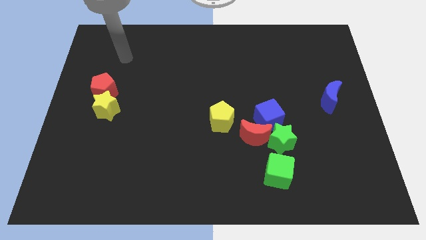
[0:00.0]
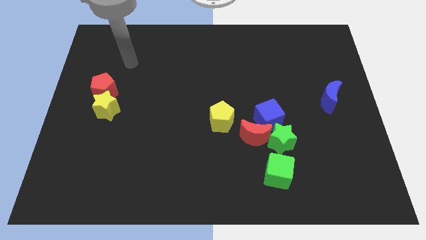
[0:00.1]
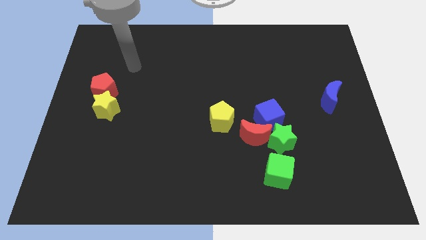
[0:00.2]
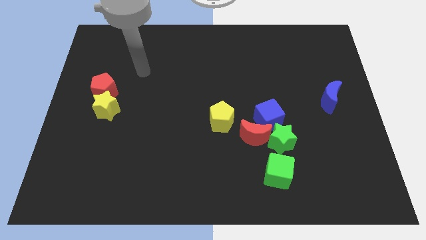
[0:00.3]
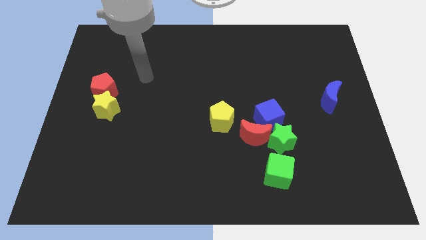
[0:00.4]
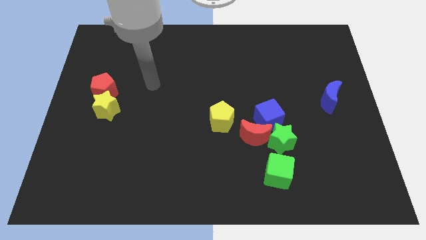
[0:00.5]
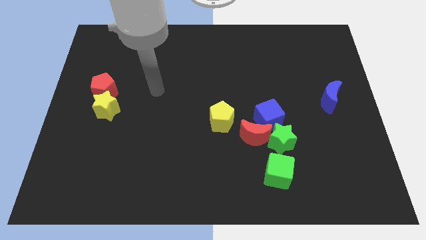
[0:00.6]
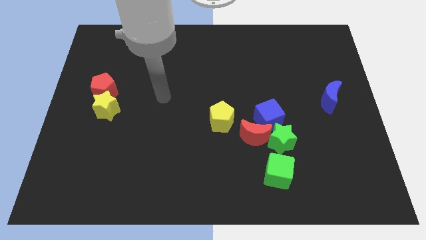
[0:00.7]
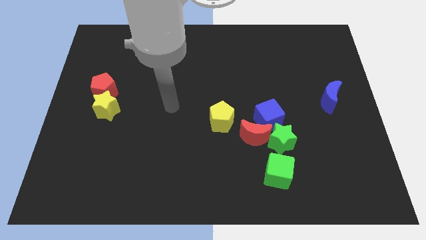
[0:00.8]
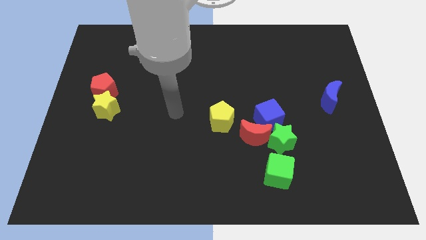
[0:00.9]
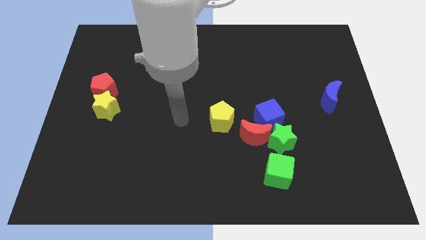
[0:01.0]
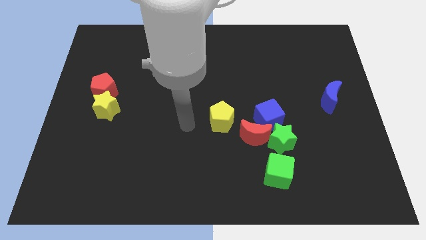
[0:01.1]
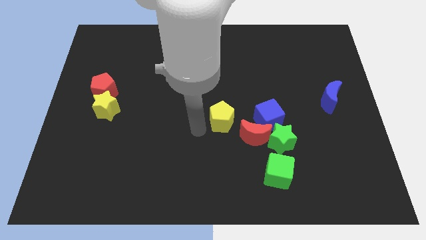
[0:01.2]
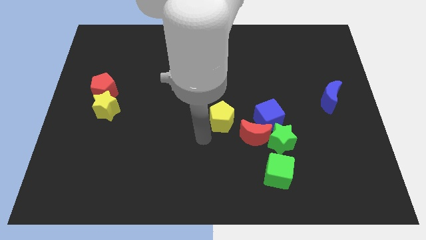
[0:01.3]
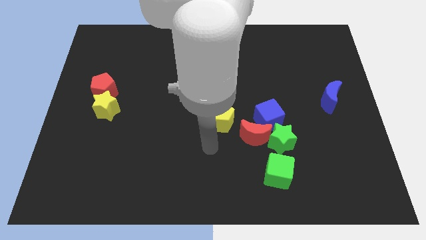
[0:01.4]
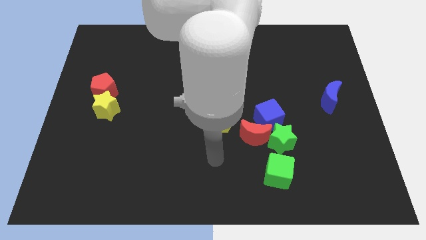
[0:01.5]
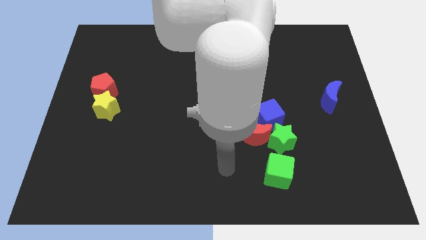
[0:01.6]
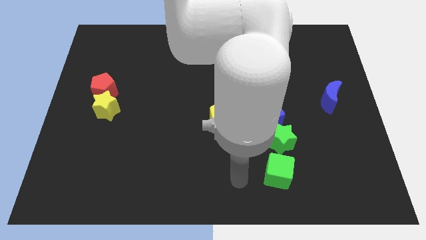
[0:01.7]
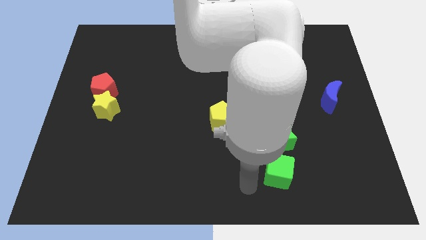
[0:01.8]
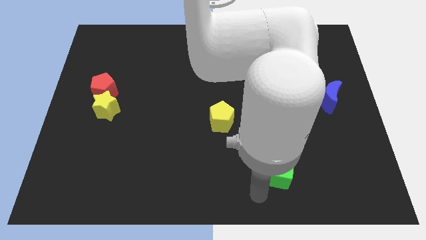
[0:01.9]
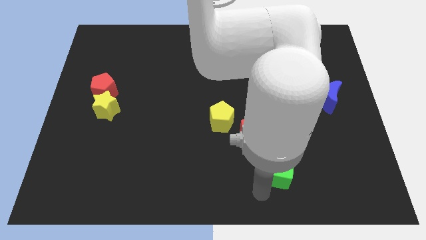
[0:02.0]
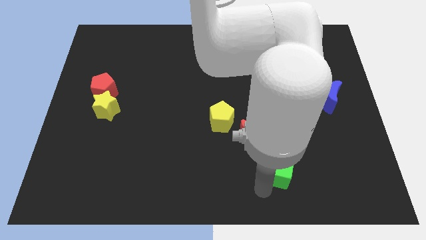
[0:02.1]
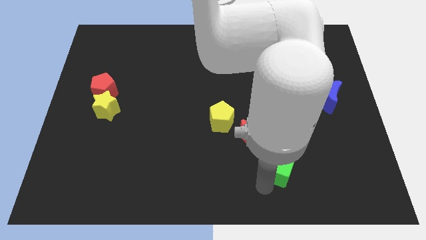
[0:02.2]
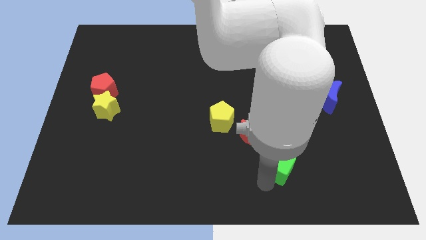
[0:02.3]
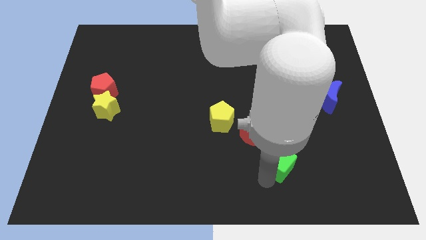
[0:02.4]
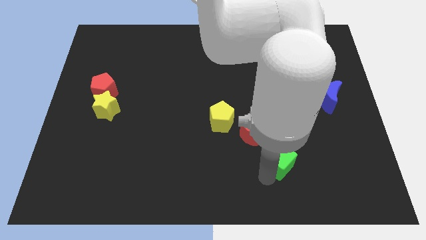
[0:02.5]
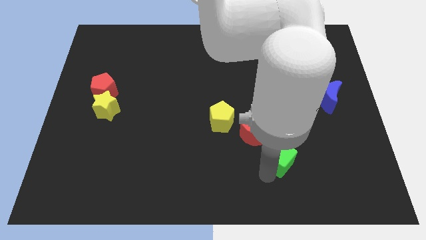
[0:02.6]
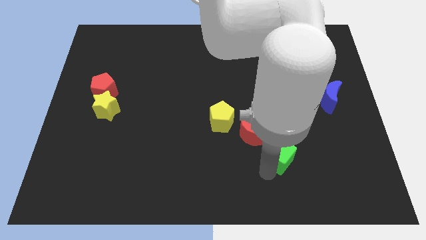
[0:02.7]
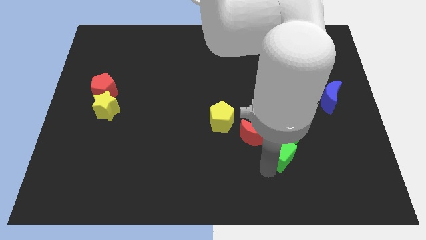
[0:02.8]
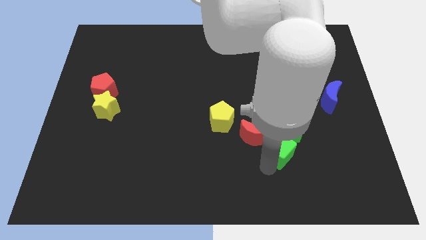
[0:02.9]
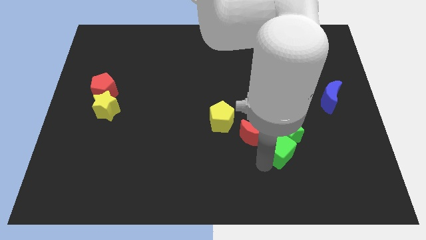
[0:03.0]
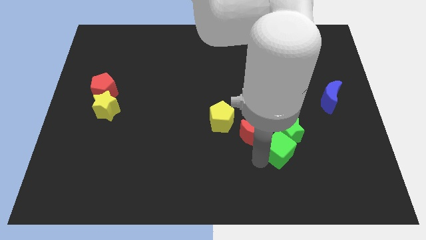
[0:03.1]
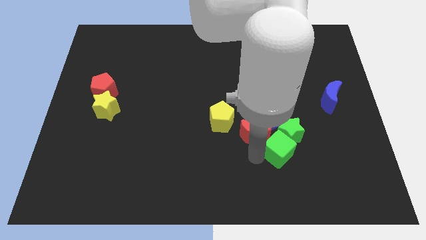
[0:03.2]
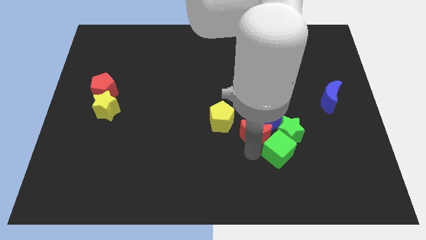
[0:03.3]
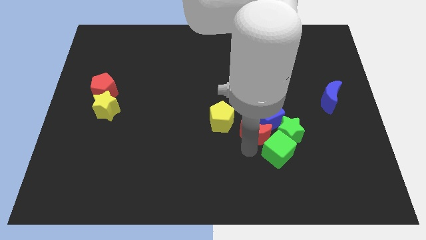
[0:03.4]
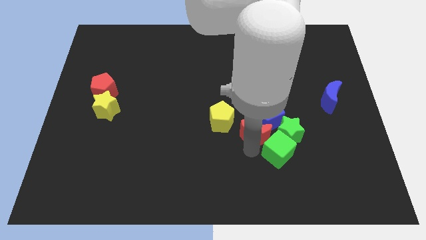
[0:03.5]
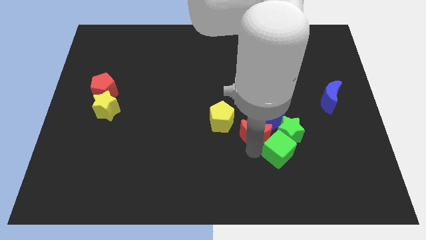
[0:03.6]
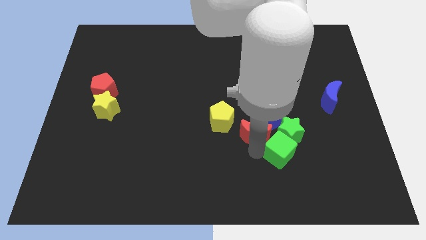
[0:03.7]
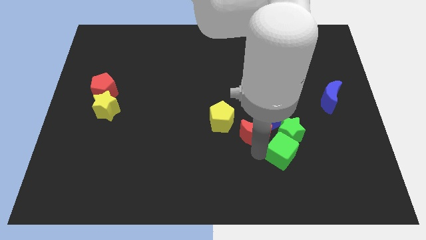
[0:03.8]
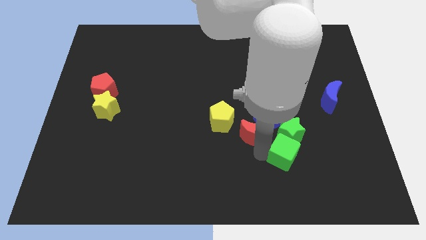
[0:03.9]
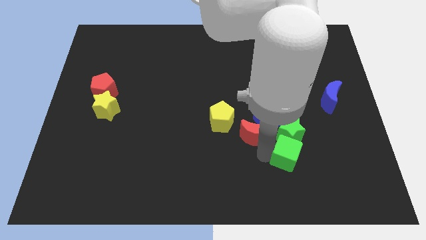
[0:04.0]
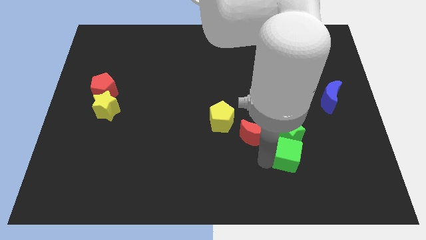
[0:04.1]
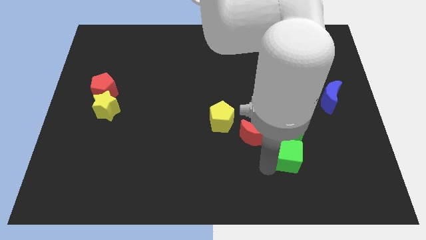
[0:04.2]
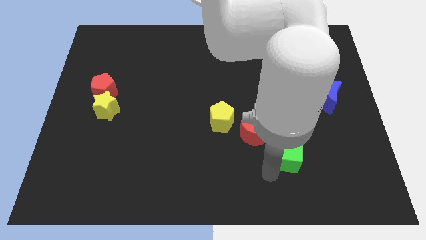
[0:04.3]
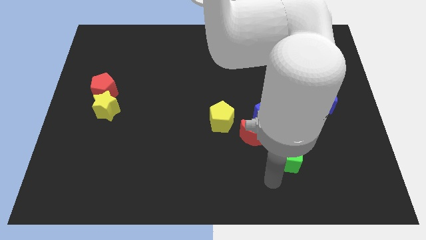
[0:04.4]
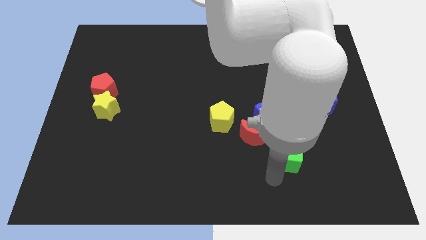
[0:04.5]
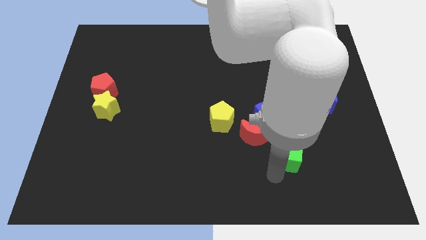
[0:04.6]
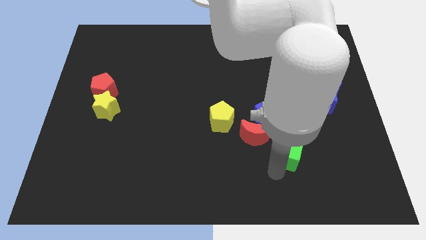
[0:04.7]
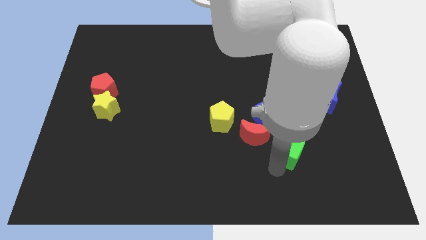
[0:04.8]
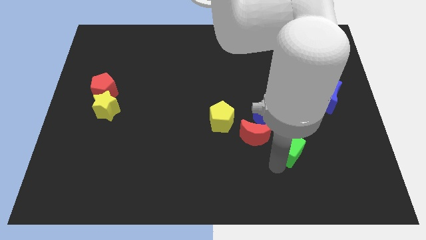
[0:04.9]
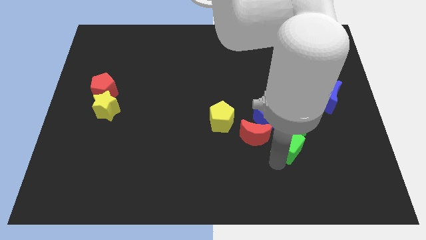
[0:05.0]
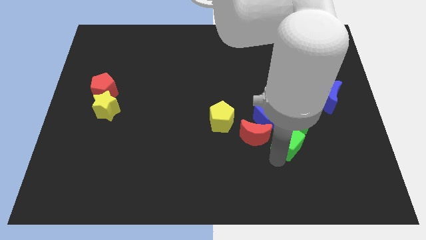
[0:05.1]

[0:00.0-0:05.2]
slightly push the green cube up

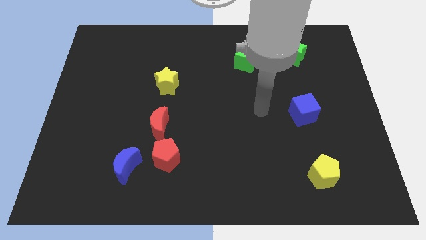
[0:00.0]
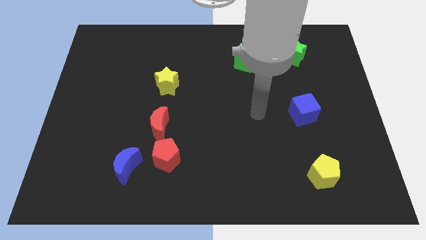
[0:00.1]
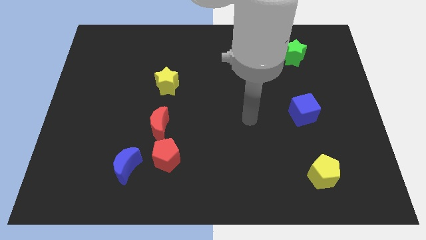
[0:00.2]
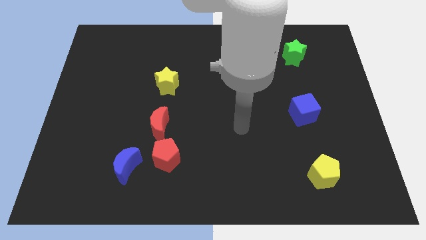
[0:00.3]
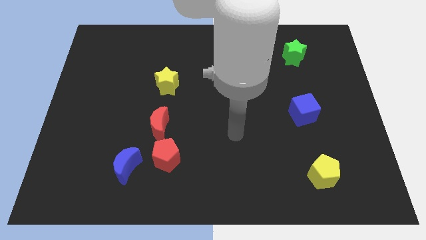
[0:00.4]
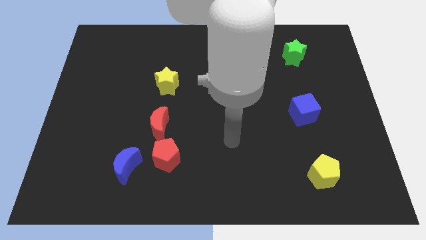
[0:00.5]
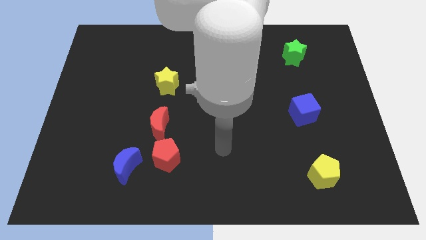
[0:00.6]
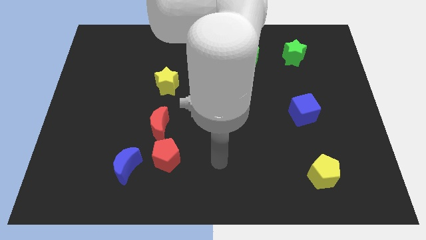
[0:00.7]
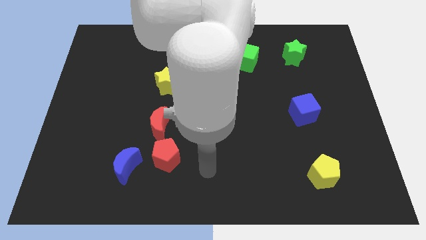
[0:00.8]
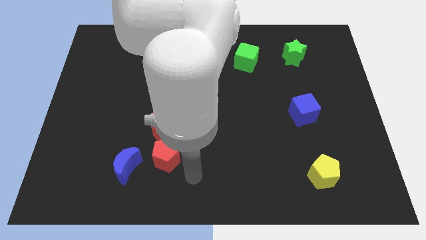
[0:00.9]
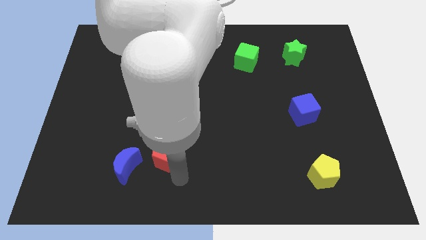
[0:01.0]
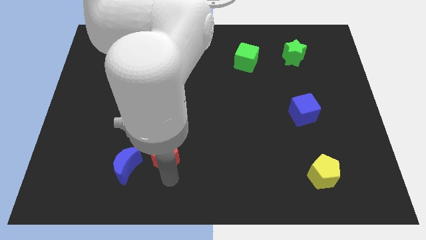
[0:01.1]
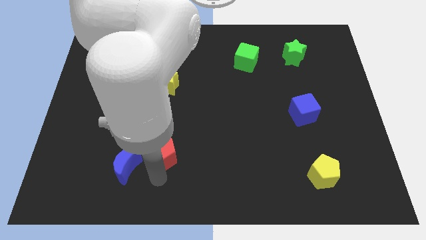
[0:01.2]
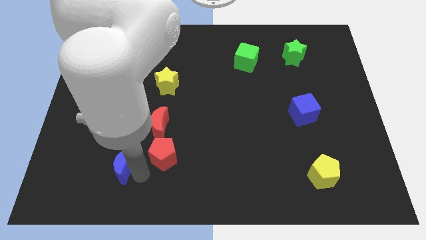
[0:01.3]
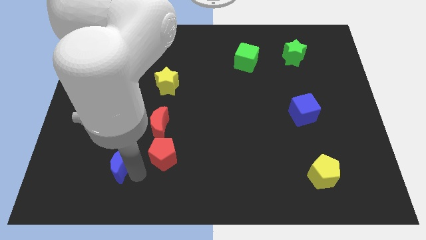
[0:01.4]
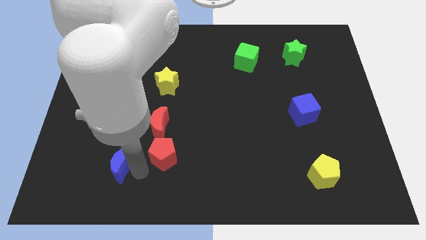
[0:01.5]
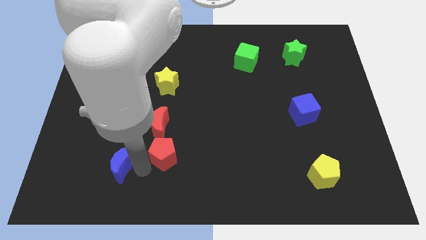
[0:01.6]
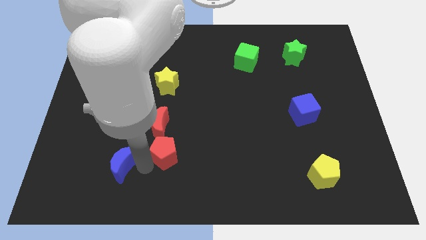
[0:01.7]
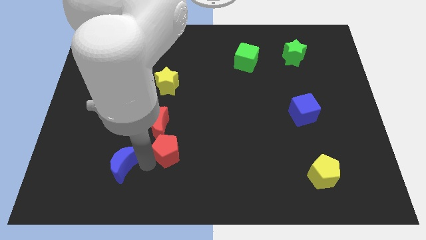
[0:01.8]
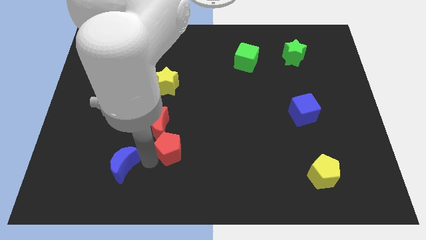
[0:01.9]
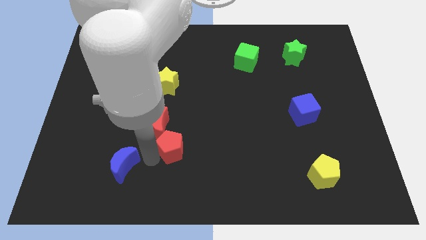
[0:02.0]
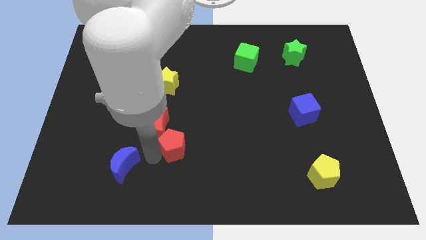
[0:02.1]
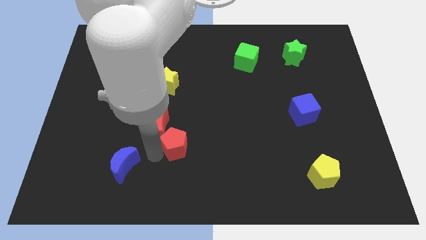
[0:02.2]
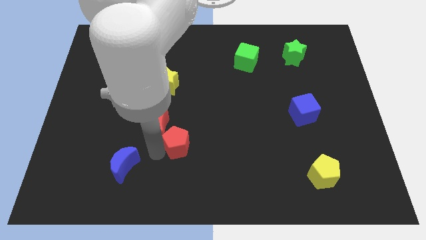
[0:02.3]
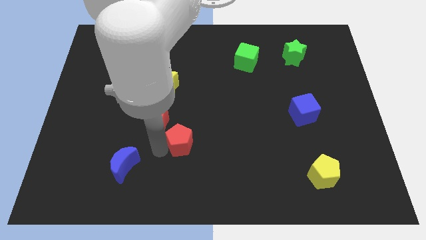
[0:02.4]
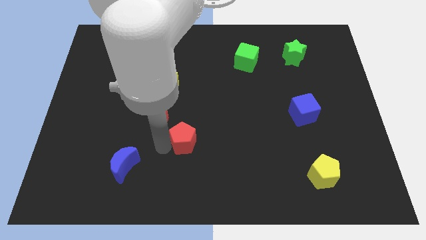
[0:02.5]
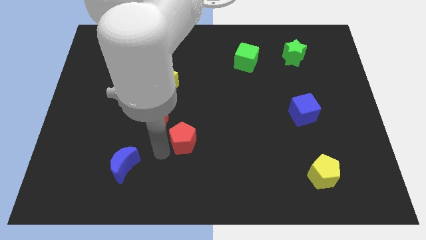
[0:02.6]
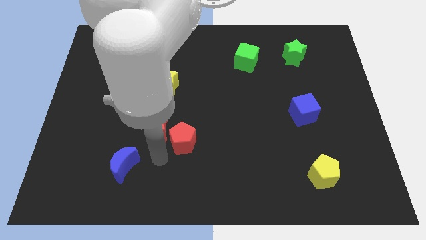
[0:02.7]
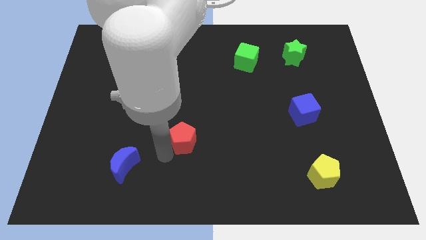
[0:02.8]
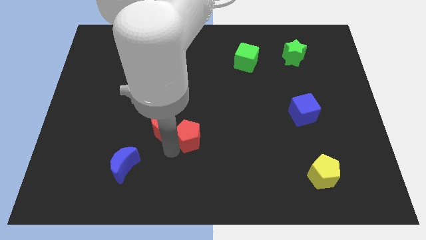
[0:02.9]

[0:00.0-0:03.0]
slightly move the red pentagon upwards and then right
